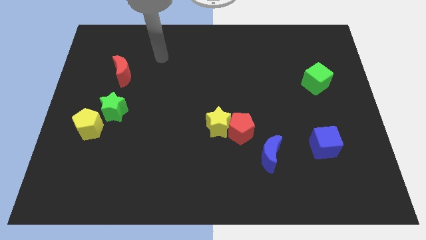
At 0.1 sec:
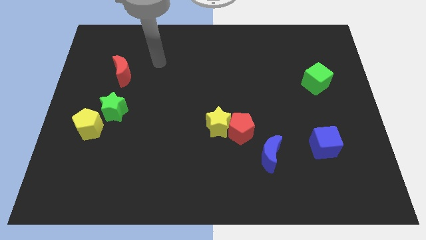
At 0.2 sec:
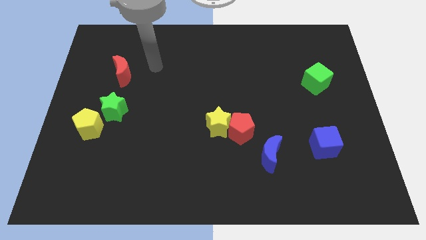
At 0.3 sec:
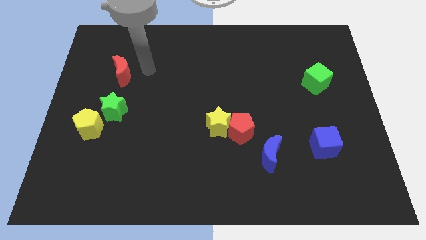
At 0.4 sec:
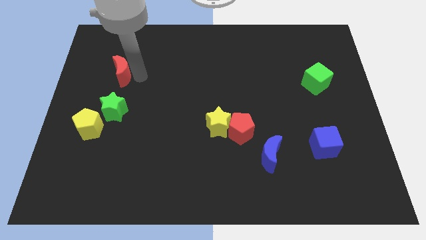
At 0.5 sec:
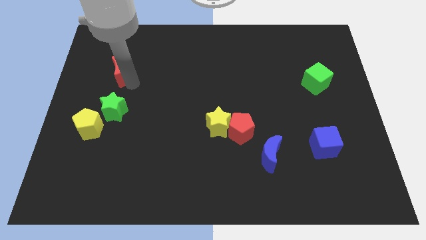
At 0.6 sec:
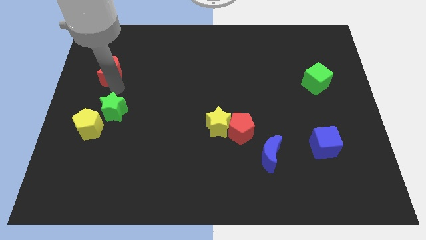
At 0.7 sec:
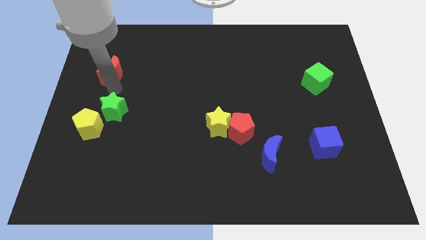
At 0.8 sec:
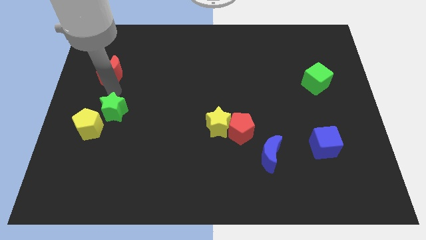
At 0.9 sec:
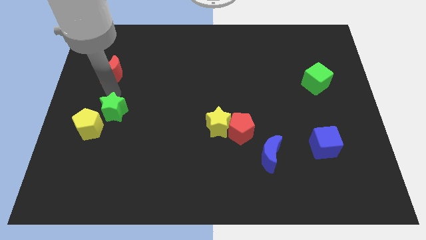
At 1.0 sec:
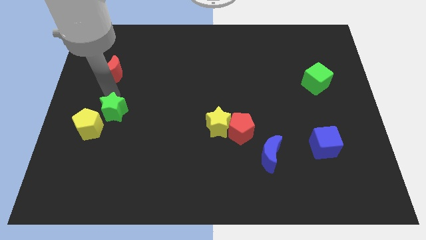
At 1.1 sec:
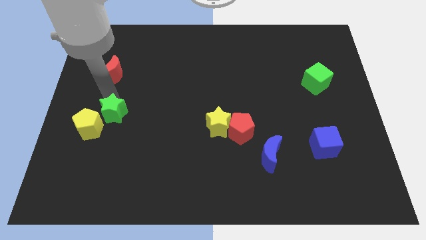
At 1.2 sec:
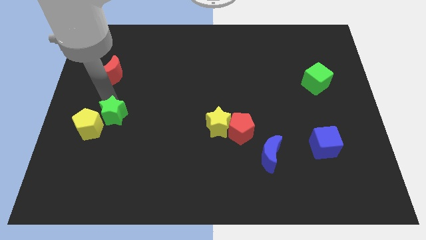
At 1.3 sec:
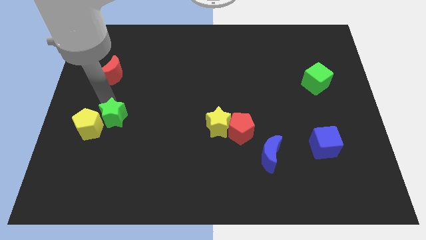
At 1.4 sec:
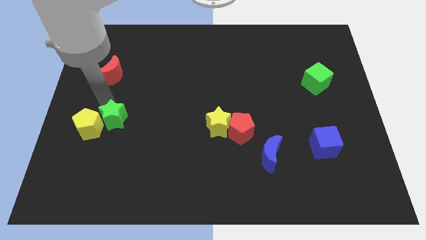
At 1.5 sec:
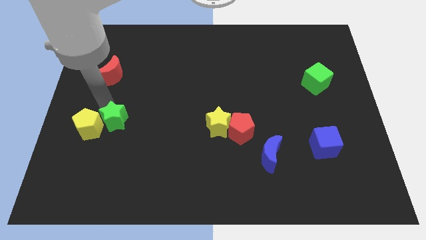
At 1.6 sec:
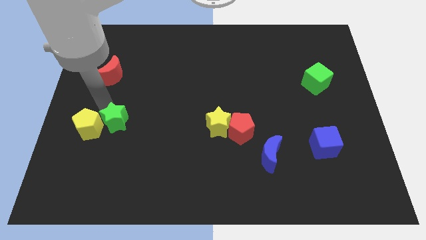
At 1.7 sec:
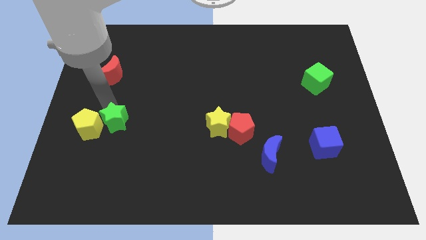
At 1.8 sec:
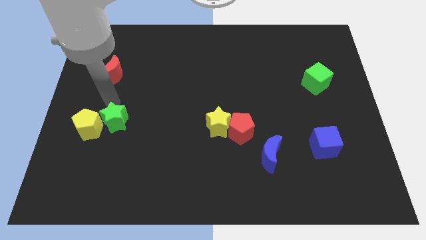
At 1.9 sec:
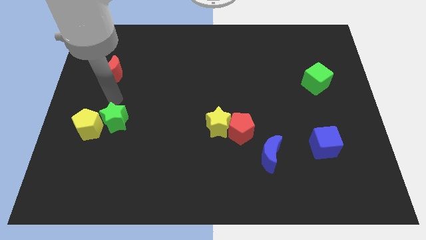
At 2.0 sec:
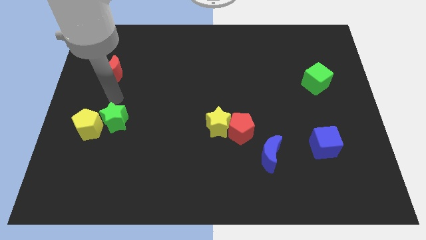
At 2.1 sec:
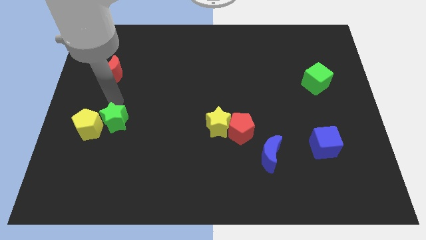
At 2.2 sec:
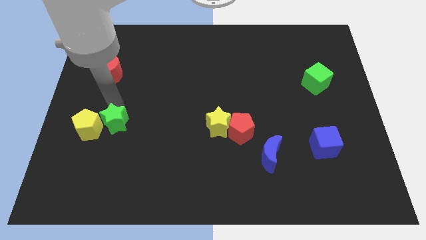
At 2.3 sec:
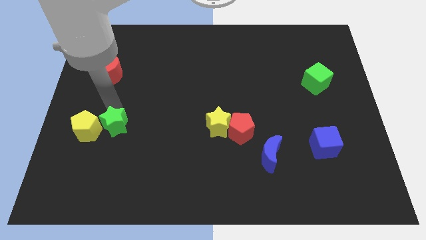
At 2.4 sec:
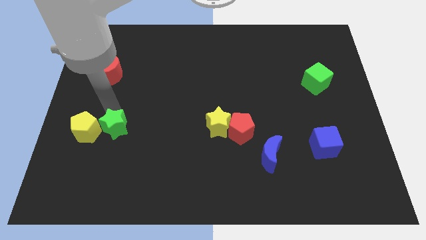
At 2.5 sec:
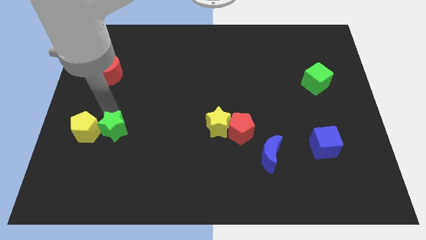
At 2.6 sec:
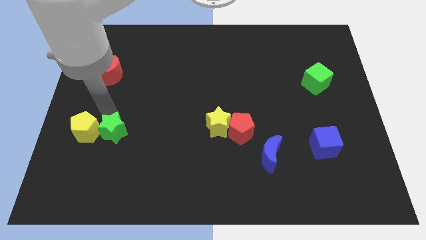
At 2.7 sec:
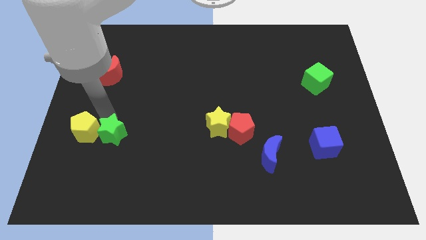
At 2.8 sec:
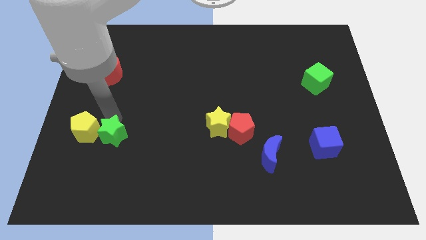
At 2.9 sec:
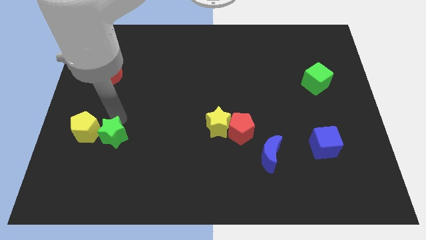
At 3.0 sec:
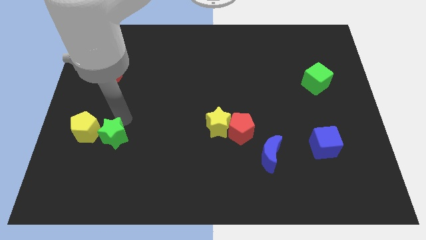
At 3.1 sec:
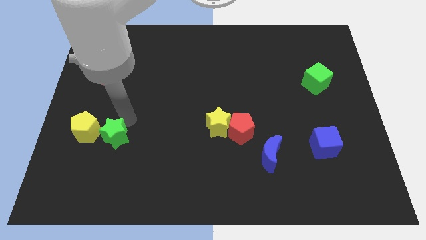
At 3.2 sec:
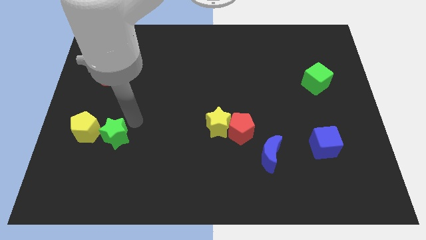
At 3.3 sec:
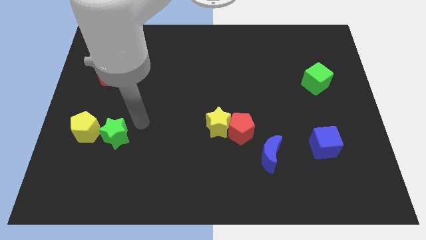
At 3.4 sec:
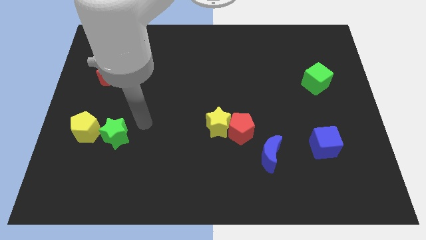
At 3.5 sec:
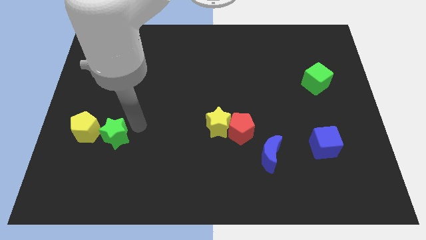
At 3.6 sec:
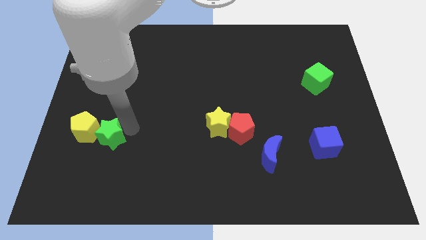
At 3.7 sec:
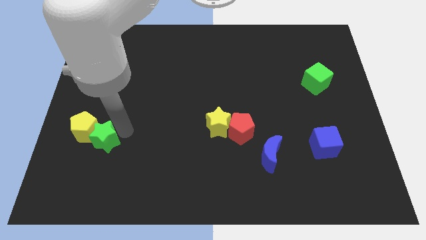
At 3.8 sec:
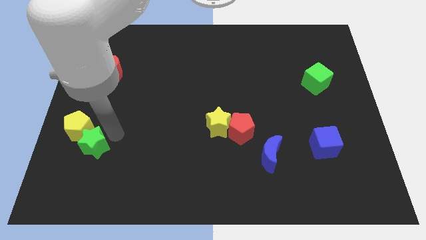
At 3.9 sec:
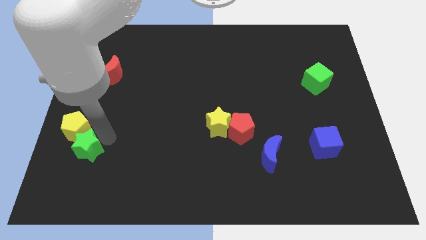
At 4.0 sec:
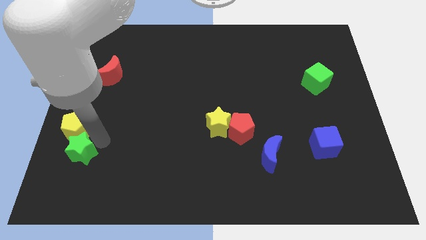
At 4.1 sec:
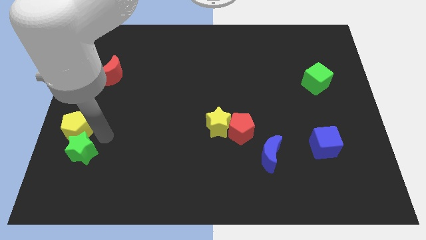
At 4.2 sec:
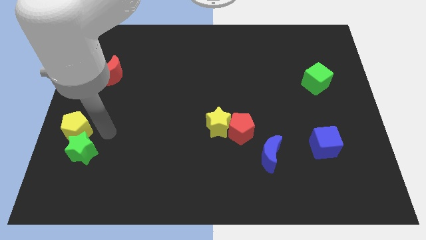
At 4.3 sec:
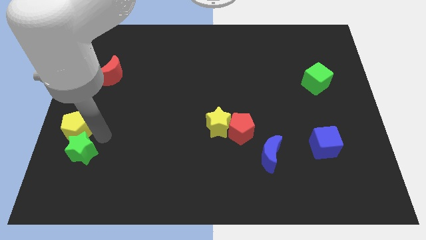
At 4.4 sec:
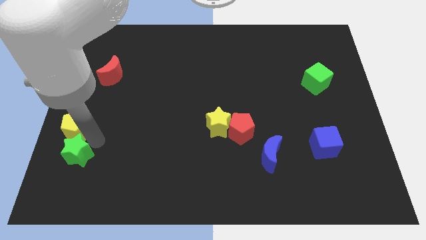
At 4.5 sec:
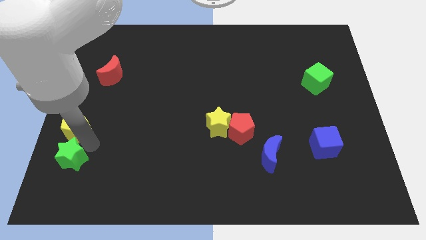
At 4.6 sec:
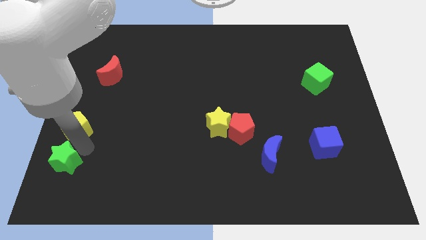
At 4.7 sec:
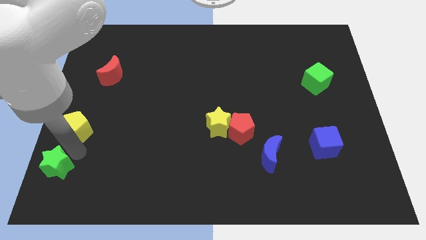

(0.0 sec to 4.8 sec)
push the green star to the bottom left corner

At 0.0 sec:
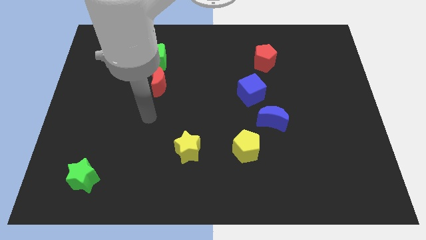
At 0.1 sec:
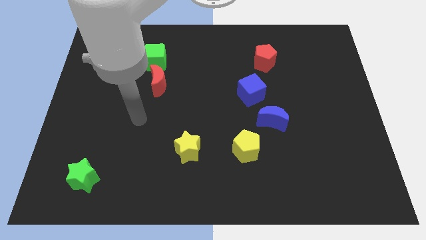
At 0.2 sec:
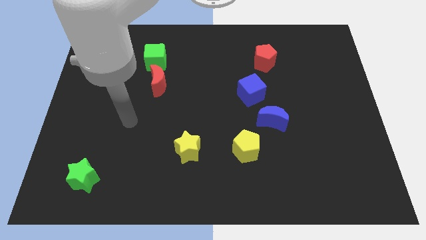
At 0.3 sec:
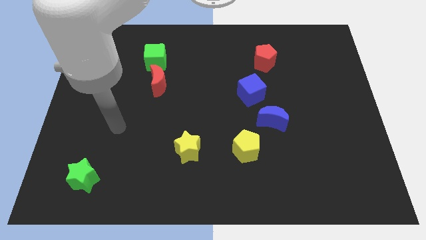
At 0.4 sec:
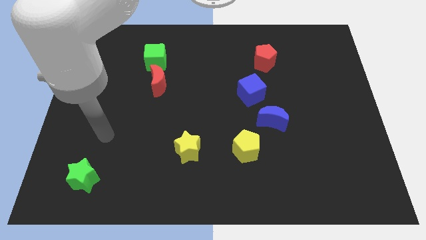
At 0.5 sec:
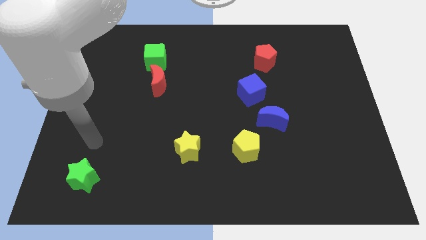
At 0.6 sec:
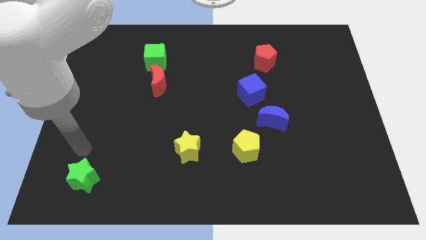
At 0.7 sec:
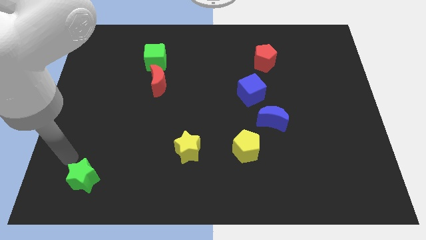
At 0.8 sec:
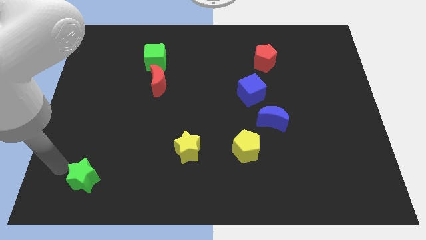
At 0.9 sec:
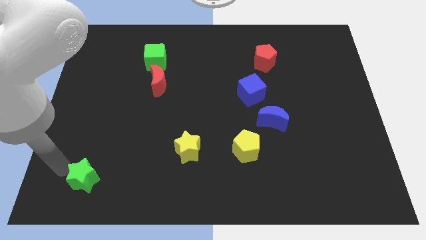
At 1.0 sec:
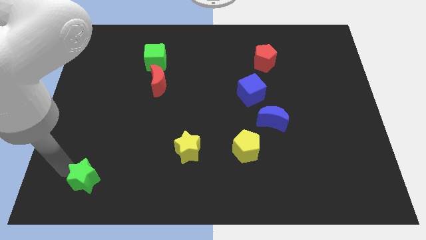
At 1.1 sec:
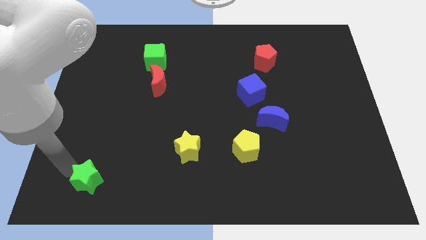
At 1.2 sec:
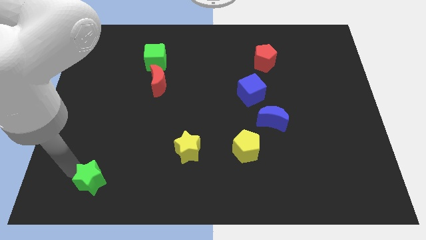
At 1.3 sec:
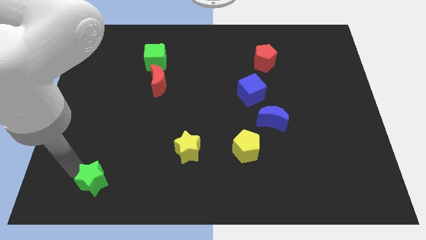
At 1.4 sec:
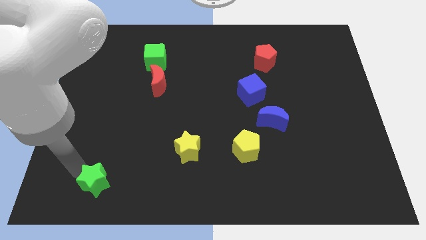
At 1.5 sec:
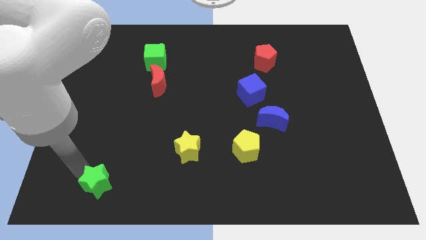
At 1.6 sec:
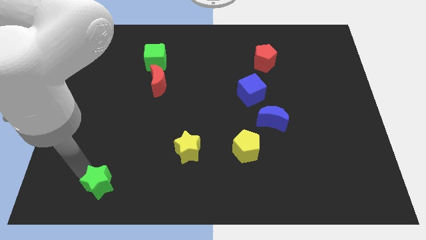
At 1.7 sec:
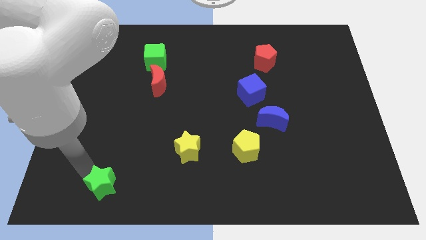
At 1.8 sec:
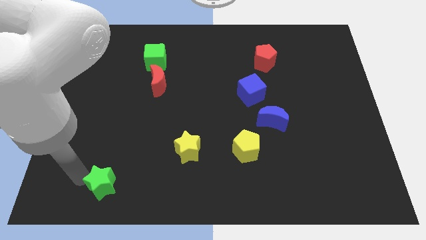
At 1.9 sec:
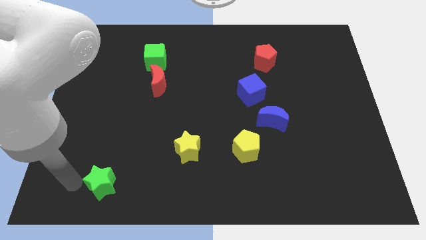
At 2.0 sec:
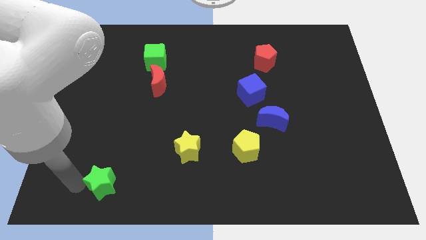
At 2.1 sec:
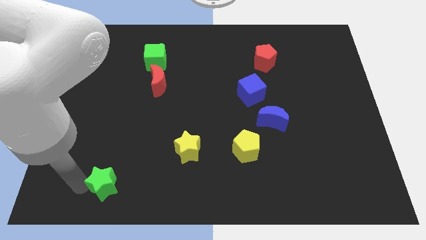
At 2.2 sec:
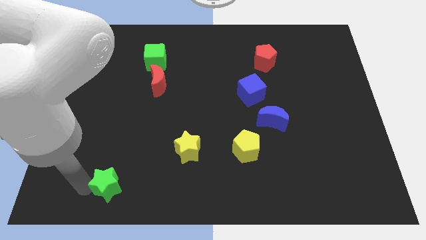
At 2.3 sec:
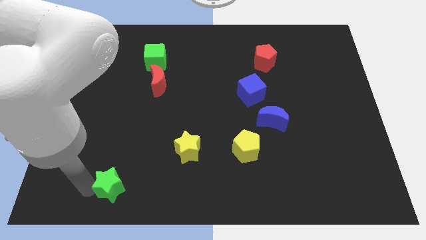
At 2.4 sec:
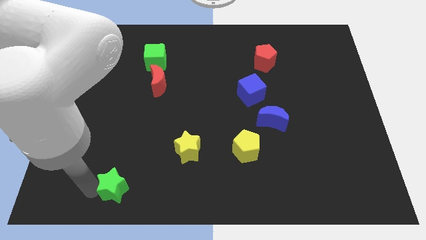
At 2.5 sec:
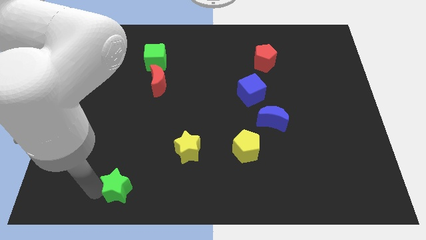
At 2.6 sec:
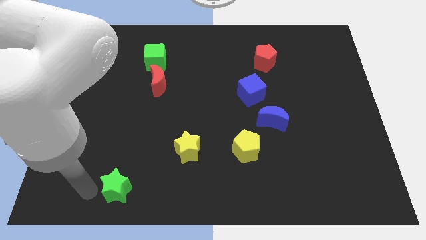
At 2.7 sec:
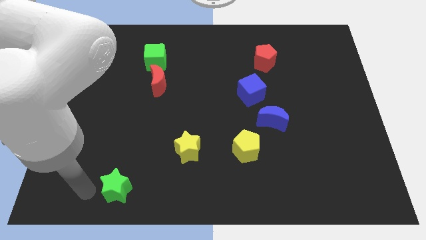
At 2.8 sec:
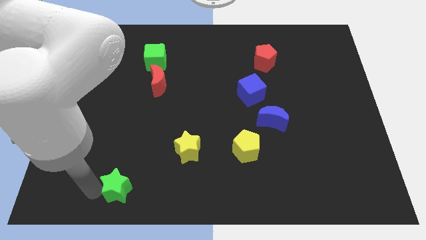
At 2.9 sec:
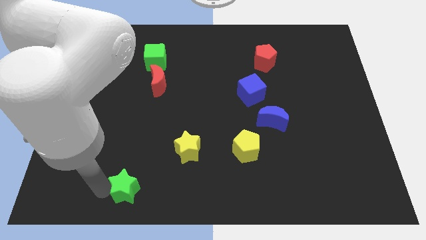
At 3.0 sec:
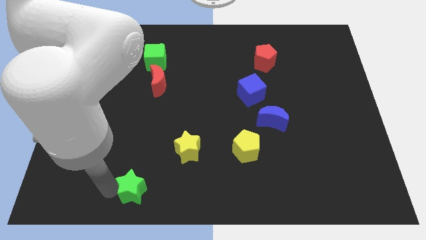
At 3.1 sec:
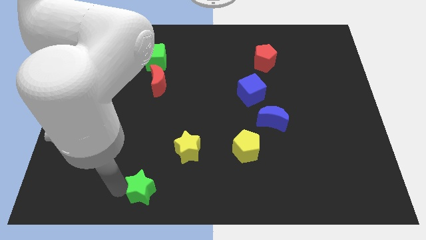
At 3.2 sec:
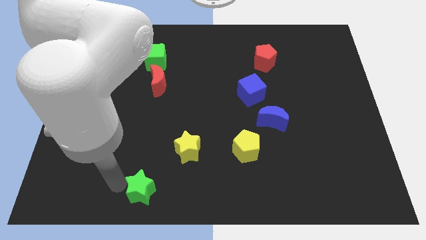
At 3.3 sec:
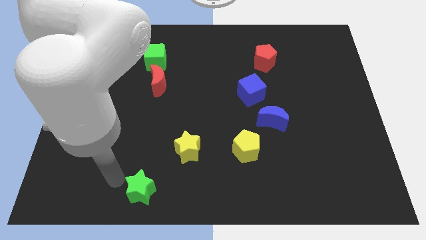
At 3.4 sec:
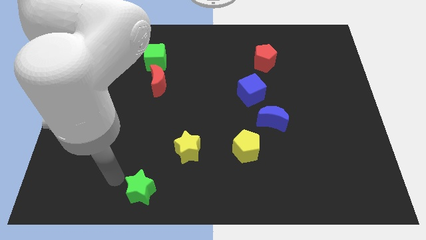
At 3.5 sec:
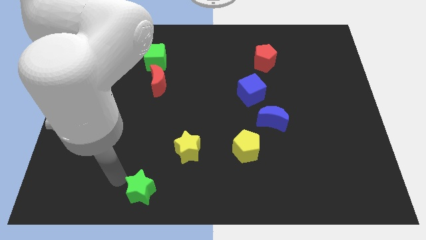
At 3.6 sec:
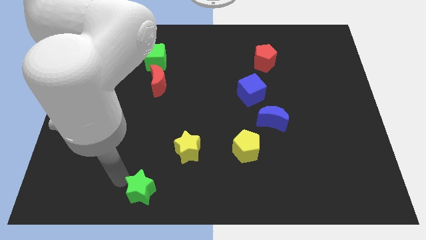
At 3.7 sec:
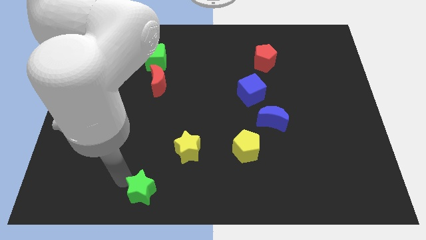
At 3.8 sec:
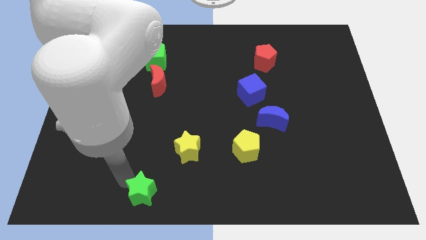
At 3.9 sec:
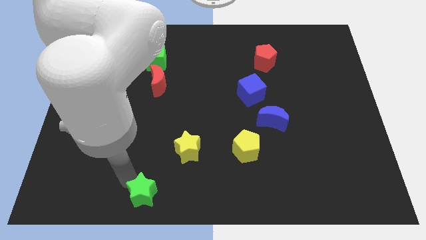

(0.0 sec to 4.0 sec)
put the green star to the bottom side
